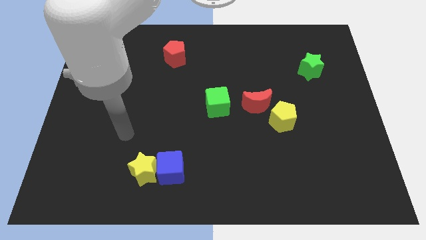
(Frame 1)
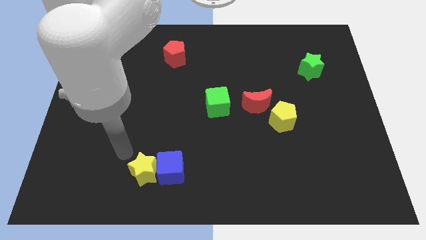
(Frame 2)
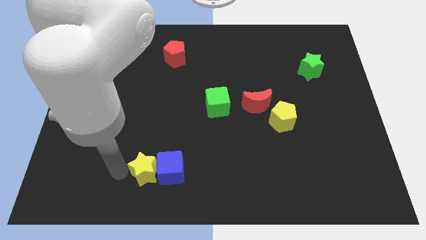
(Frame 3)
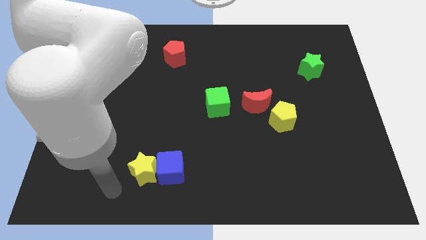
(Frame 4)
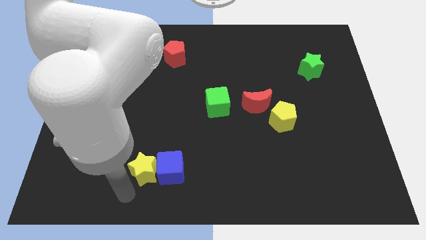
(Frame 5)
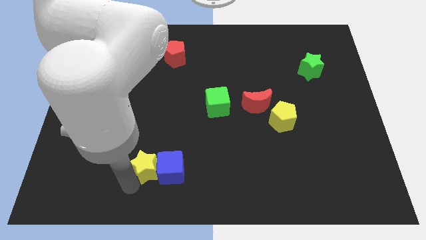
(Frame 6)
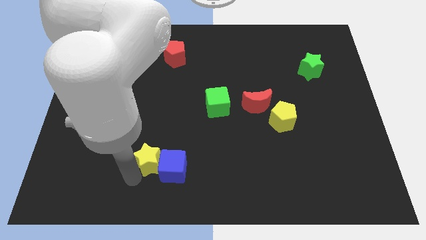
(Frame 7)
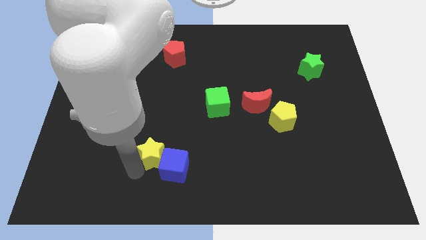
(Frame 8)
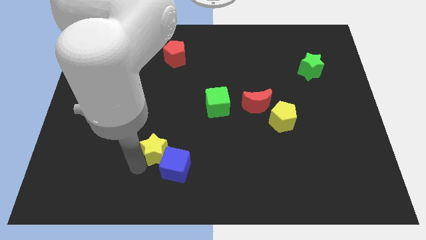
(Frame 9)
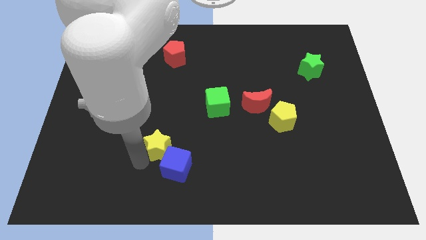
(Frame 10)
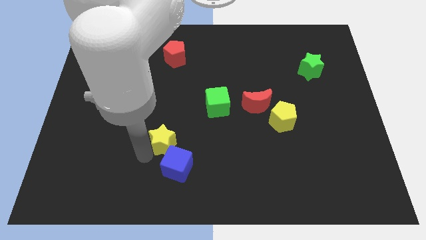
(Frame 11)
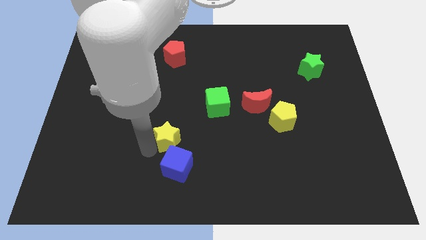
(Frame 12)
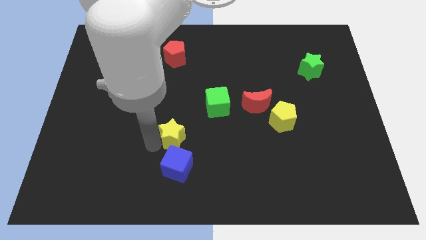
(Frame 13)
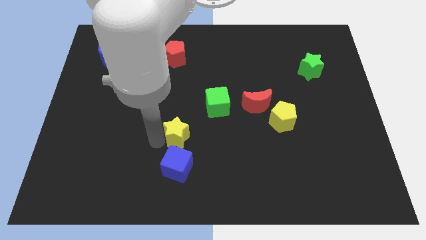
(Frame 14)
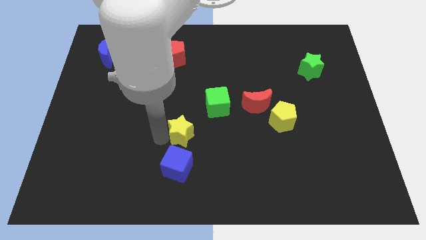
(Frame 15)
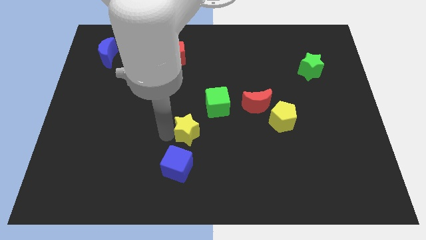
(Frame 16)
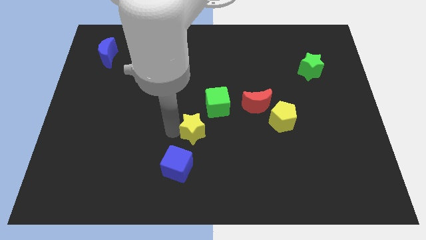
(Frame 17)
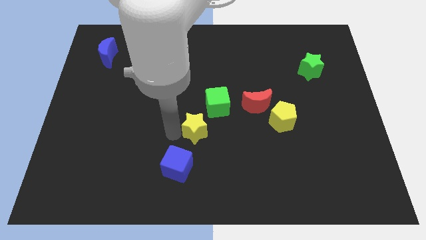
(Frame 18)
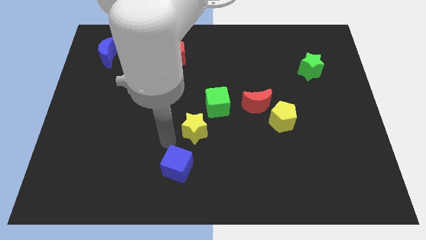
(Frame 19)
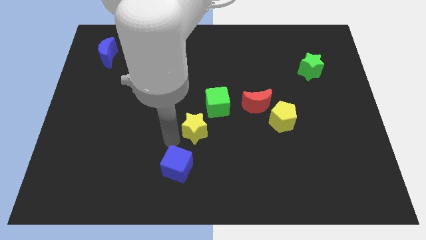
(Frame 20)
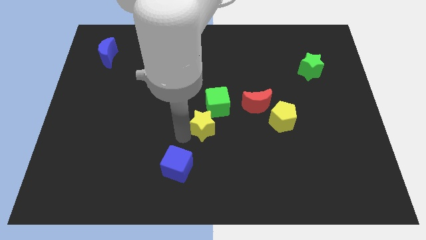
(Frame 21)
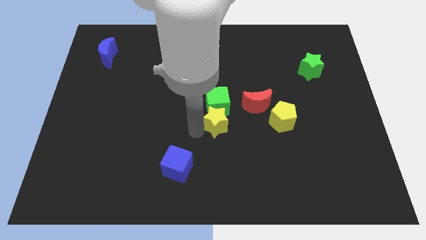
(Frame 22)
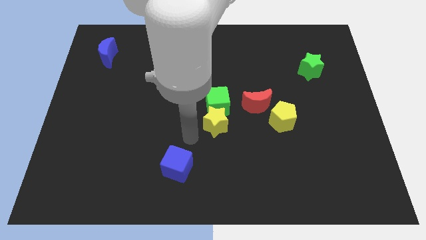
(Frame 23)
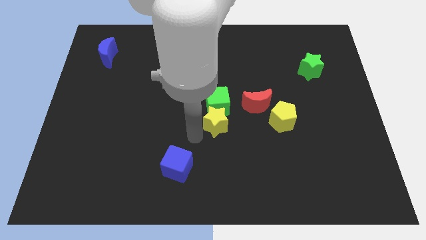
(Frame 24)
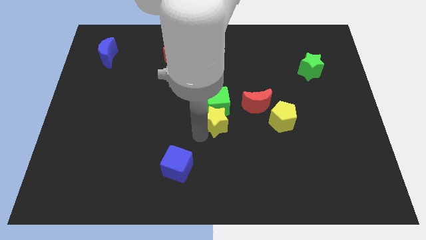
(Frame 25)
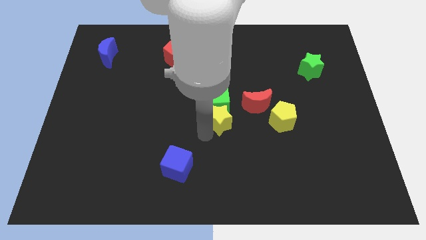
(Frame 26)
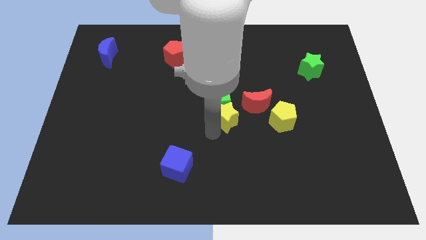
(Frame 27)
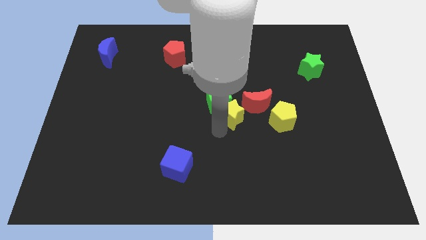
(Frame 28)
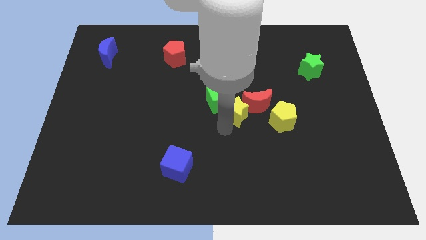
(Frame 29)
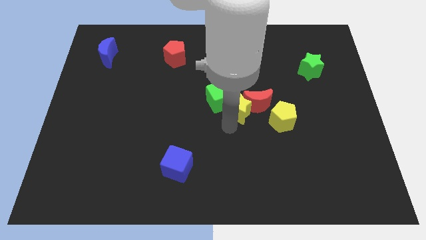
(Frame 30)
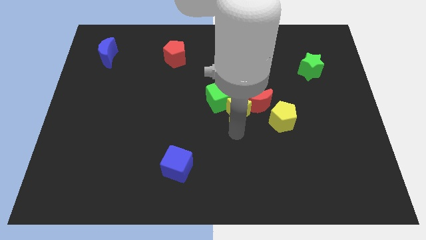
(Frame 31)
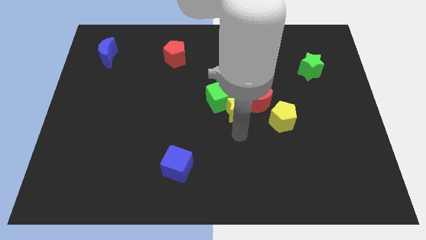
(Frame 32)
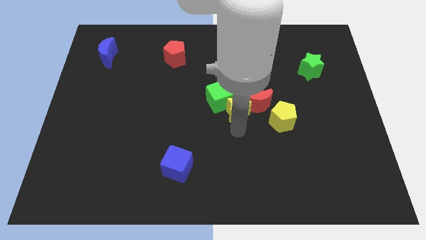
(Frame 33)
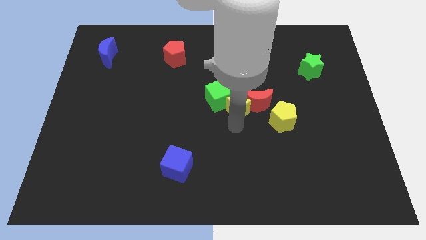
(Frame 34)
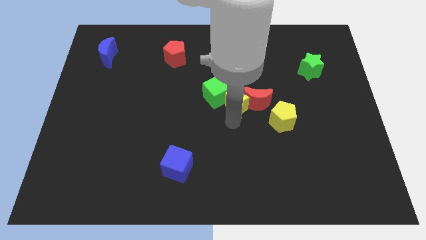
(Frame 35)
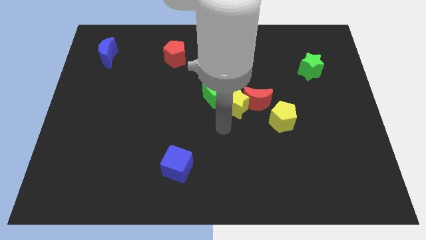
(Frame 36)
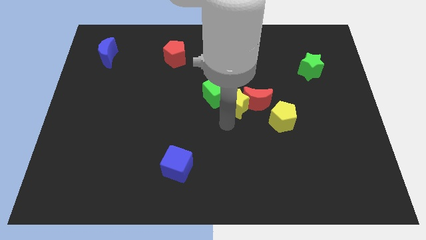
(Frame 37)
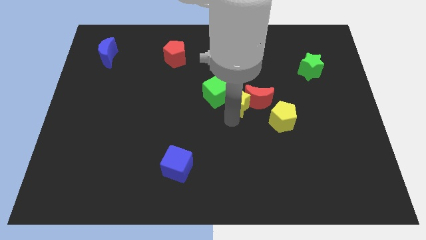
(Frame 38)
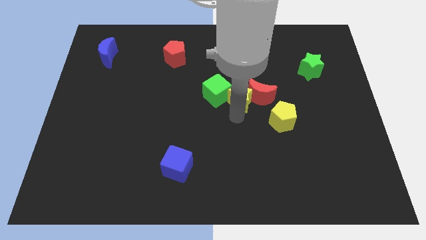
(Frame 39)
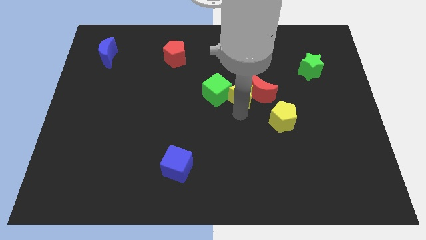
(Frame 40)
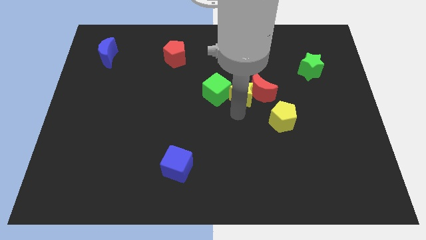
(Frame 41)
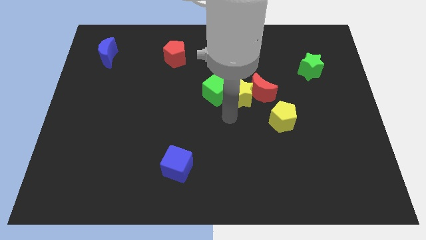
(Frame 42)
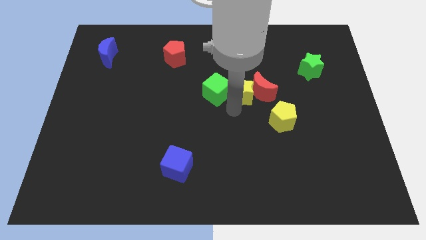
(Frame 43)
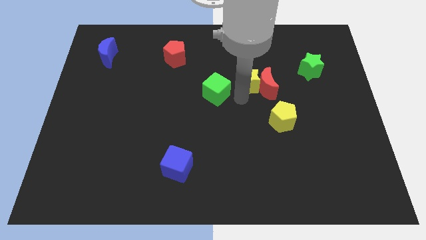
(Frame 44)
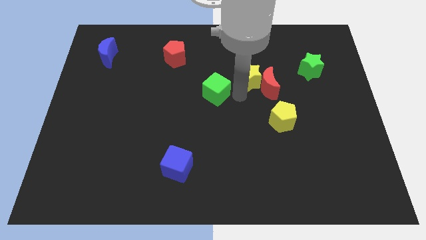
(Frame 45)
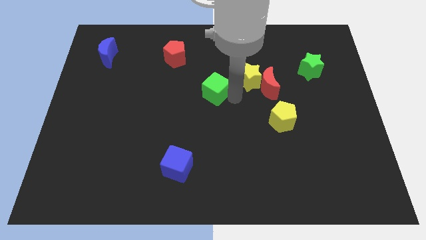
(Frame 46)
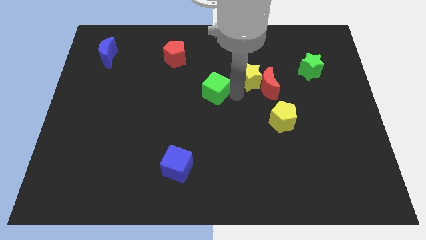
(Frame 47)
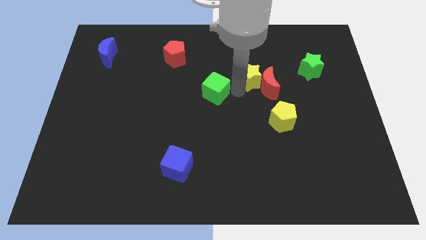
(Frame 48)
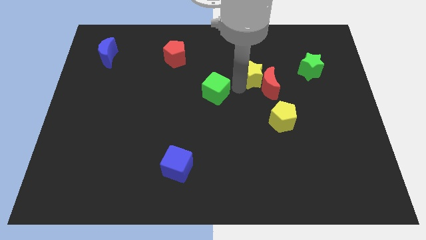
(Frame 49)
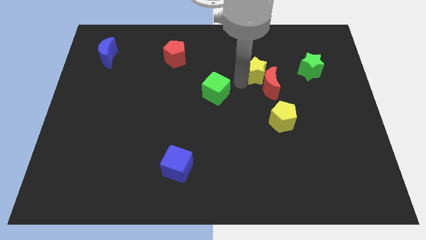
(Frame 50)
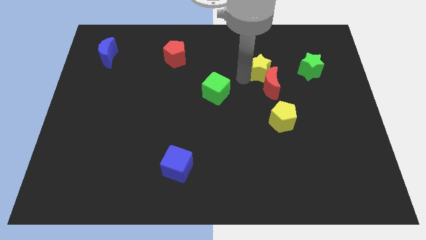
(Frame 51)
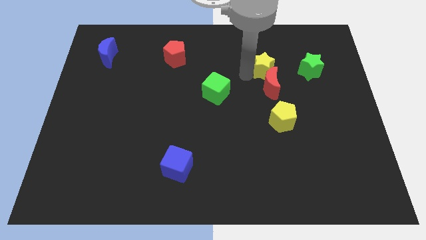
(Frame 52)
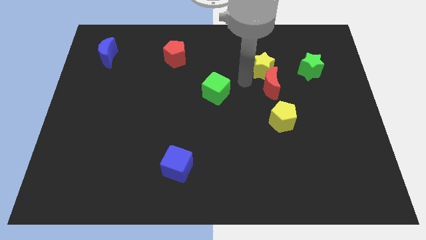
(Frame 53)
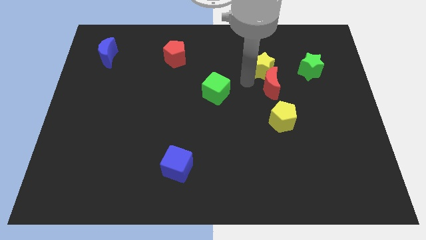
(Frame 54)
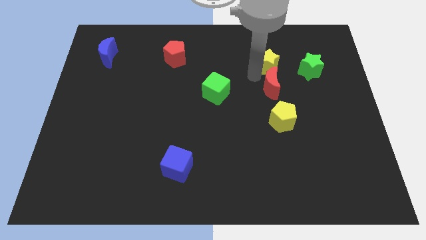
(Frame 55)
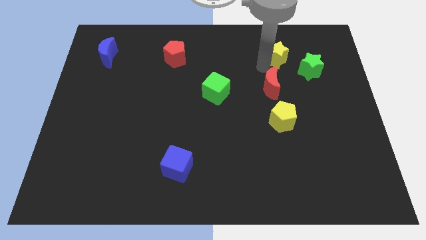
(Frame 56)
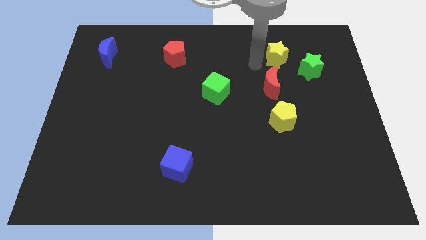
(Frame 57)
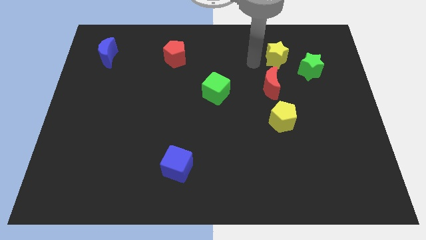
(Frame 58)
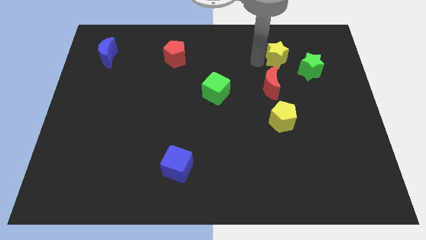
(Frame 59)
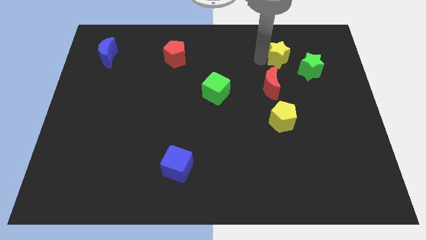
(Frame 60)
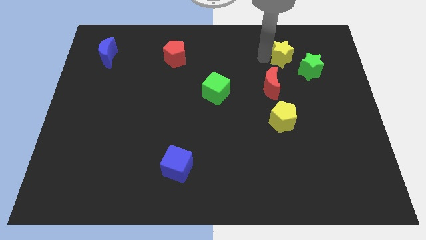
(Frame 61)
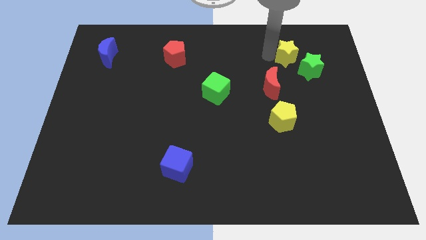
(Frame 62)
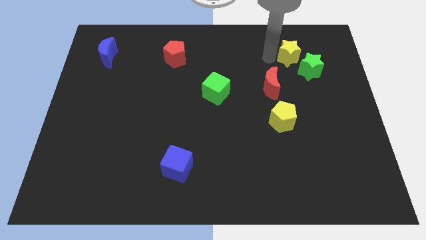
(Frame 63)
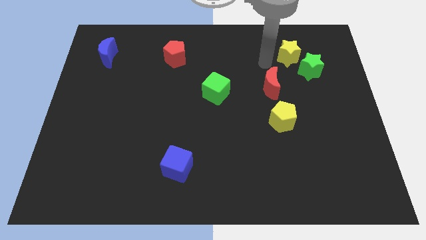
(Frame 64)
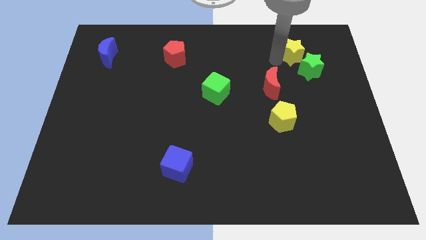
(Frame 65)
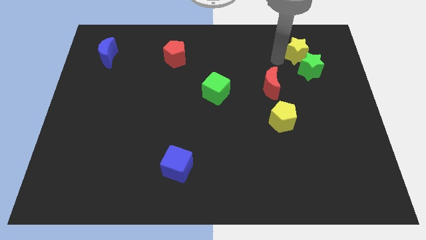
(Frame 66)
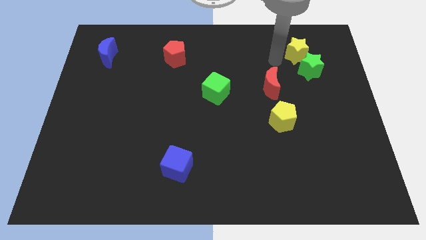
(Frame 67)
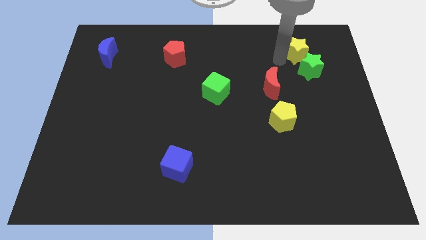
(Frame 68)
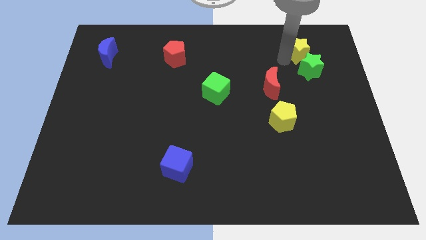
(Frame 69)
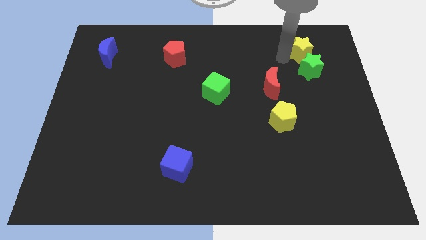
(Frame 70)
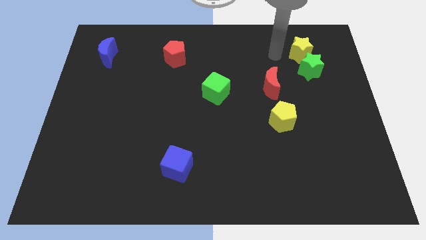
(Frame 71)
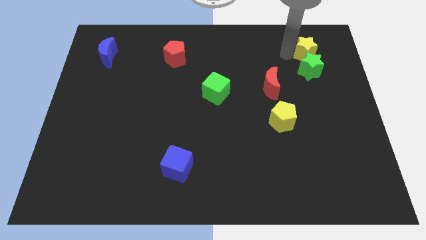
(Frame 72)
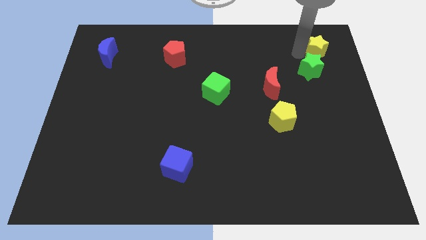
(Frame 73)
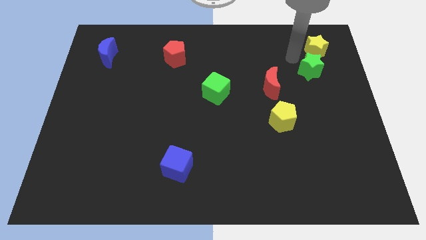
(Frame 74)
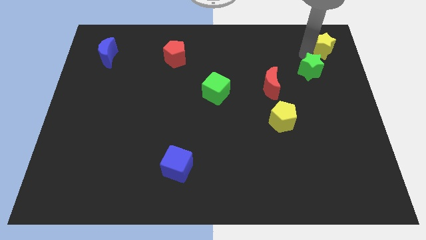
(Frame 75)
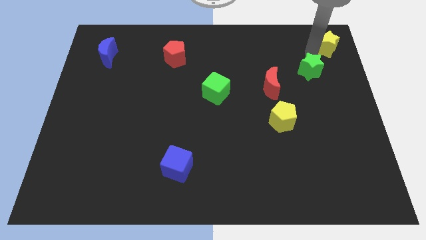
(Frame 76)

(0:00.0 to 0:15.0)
move the yellow star to the top right corner
